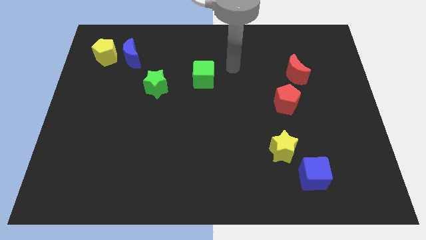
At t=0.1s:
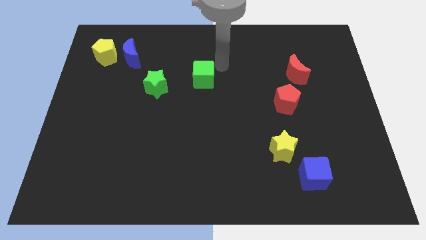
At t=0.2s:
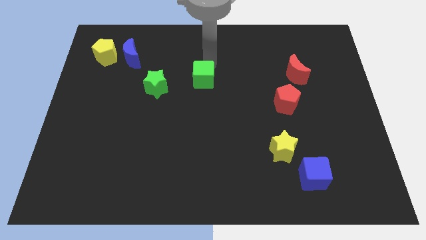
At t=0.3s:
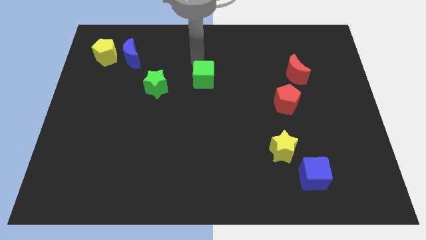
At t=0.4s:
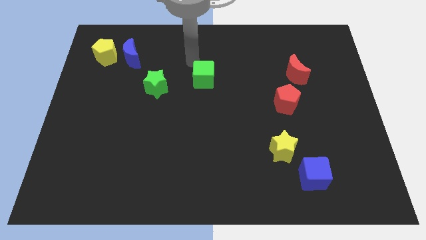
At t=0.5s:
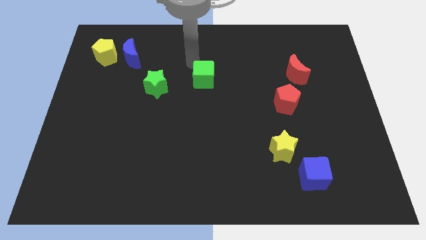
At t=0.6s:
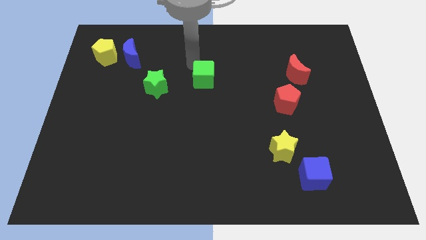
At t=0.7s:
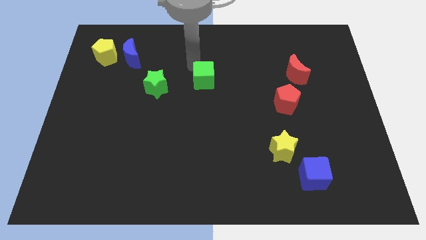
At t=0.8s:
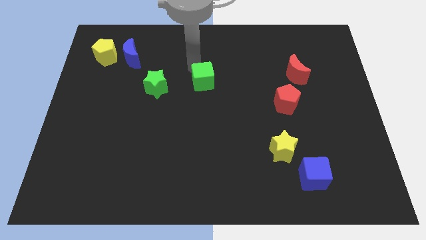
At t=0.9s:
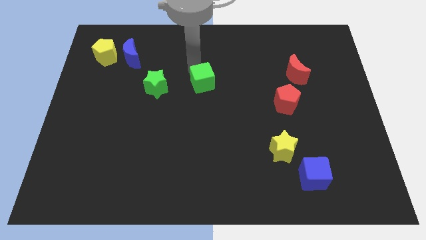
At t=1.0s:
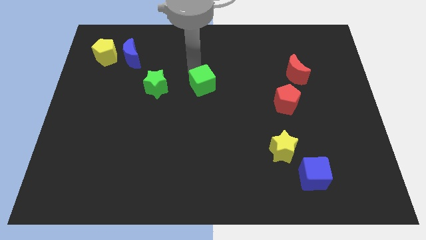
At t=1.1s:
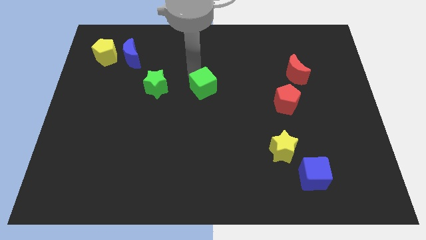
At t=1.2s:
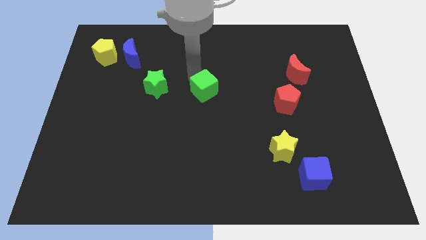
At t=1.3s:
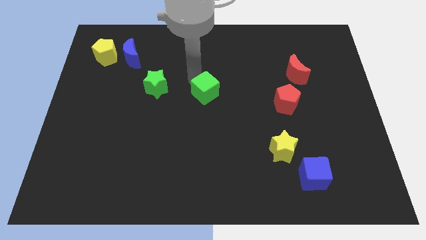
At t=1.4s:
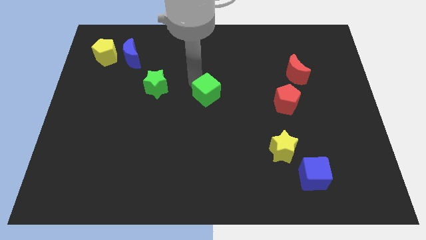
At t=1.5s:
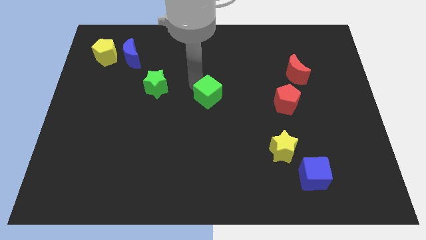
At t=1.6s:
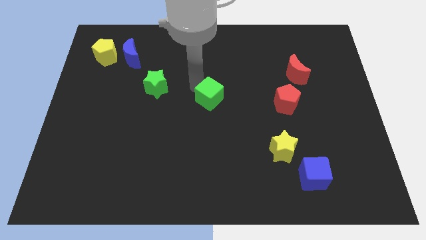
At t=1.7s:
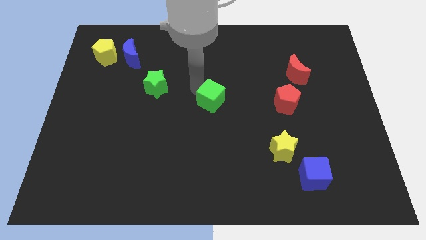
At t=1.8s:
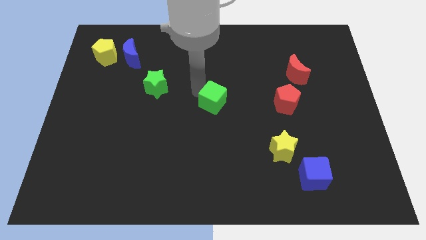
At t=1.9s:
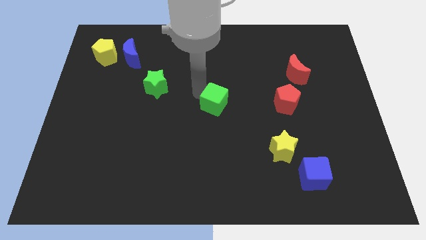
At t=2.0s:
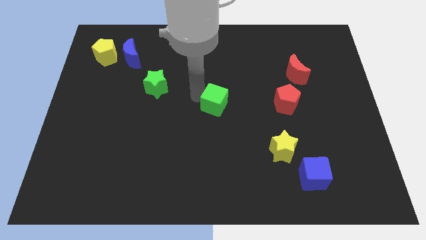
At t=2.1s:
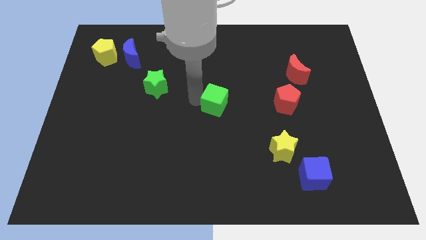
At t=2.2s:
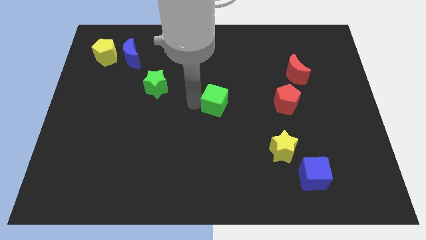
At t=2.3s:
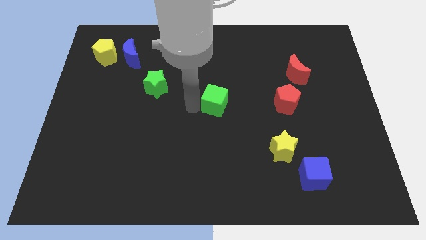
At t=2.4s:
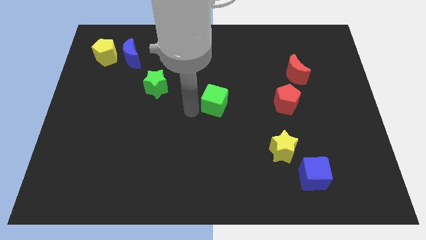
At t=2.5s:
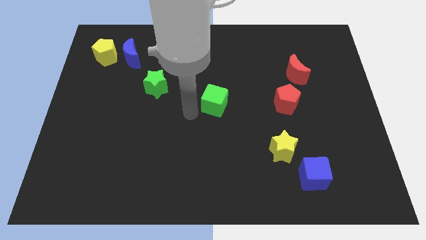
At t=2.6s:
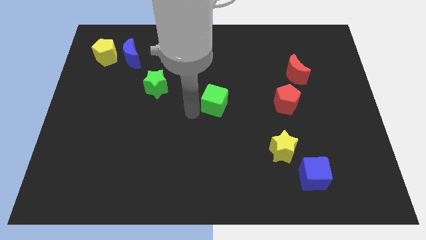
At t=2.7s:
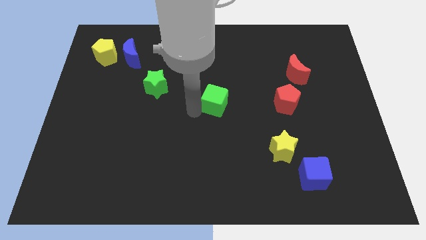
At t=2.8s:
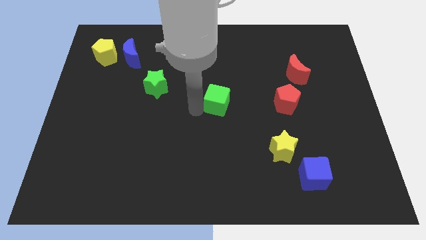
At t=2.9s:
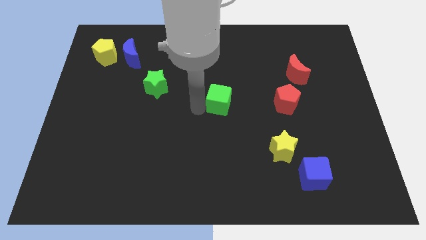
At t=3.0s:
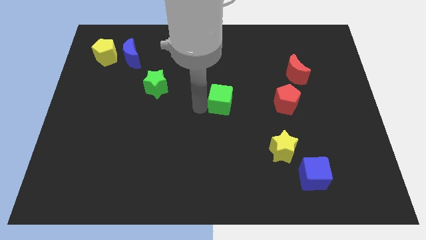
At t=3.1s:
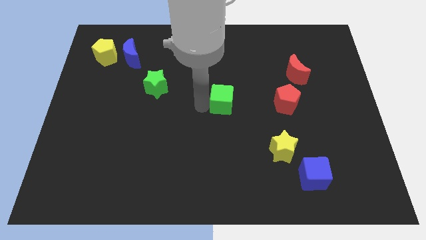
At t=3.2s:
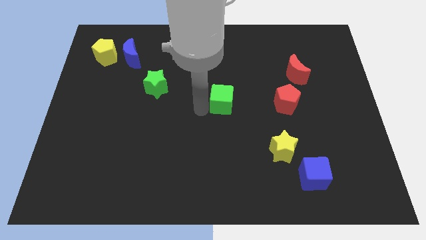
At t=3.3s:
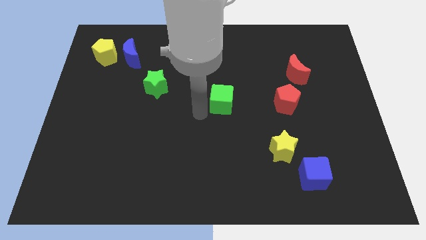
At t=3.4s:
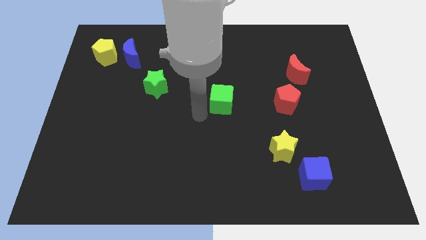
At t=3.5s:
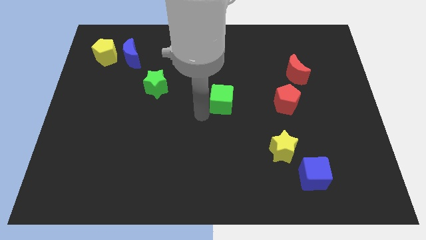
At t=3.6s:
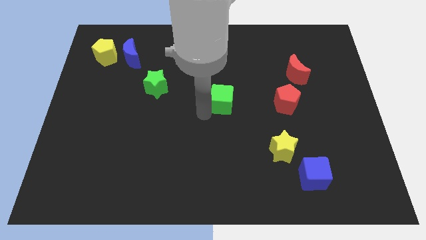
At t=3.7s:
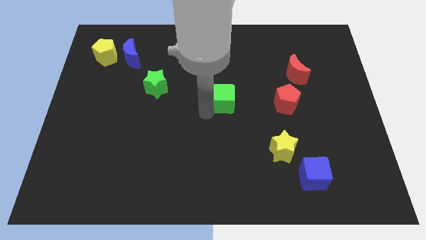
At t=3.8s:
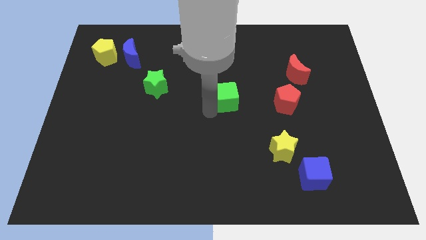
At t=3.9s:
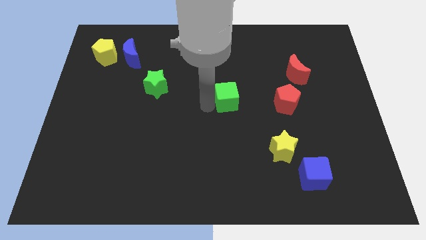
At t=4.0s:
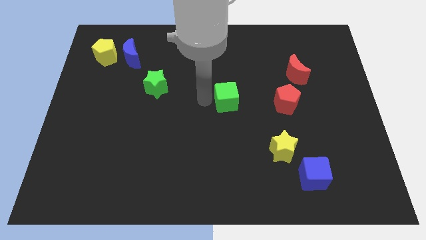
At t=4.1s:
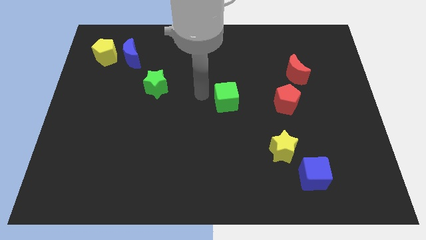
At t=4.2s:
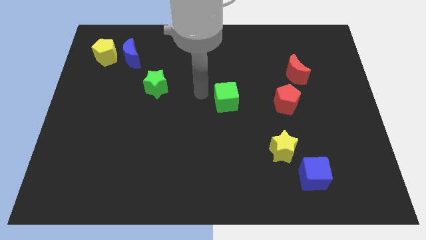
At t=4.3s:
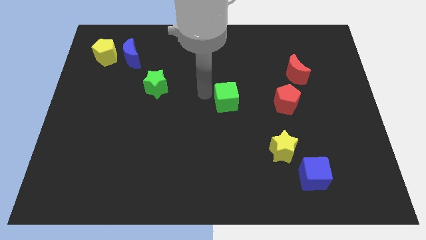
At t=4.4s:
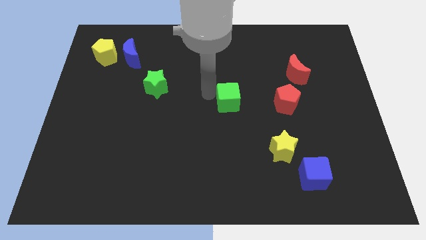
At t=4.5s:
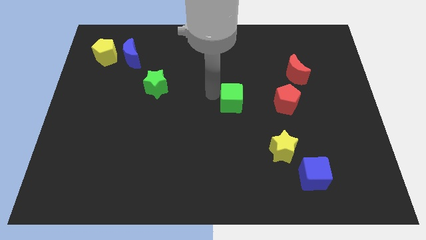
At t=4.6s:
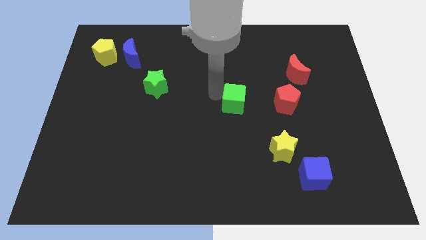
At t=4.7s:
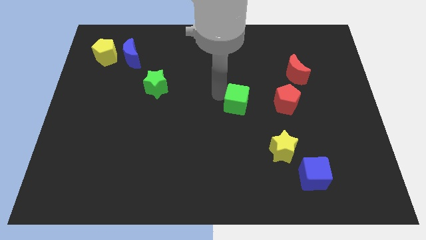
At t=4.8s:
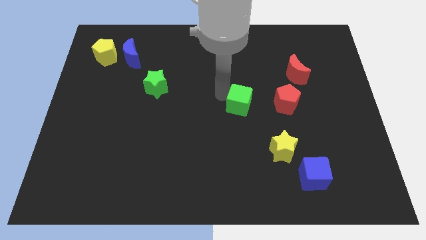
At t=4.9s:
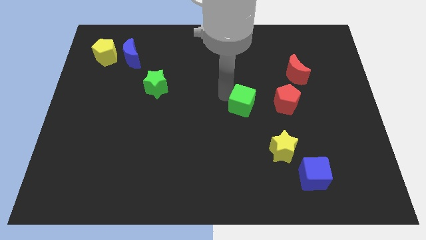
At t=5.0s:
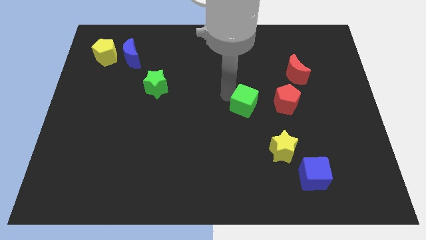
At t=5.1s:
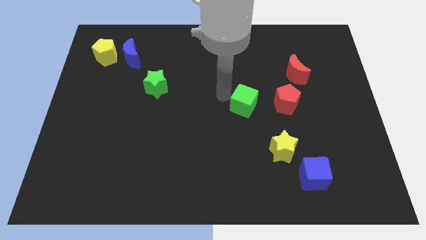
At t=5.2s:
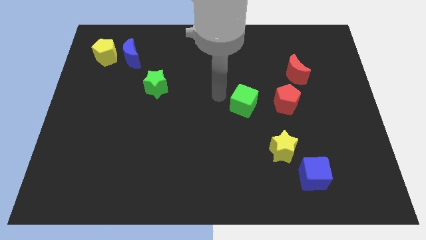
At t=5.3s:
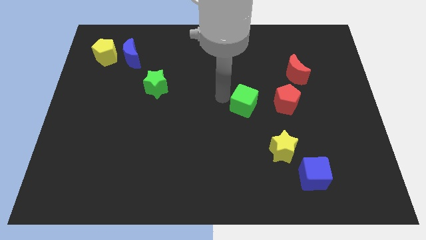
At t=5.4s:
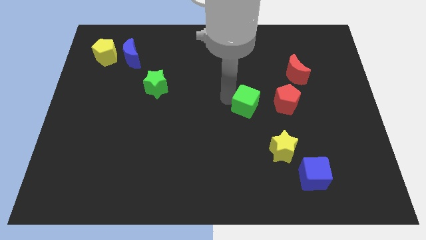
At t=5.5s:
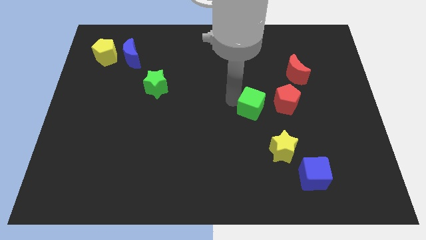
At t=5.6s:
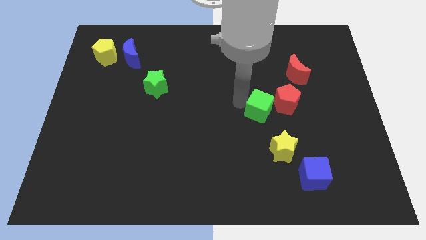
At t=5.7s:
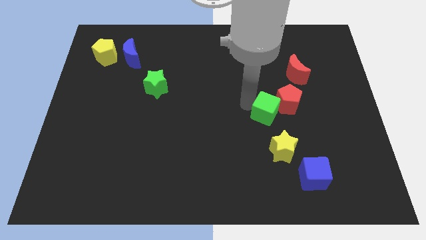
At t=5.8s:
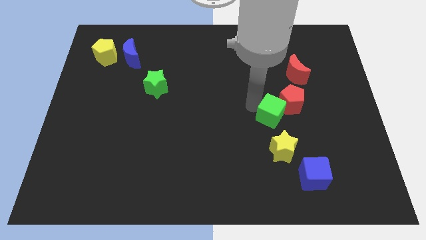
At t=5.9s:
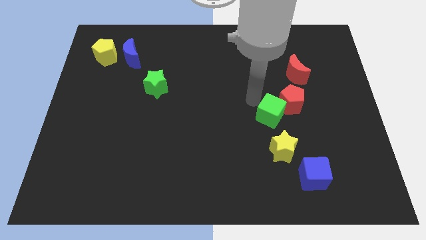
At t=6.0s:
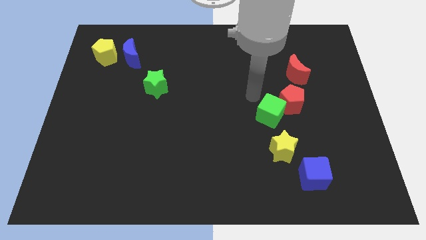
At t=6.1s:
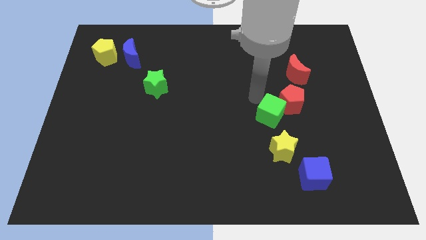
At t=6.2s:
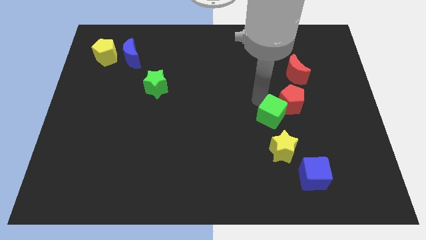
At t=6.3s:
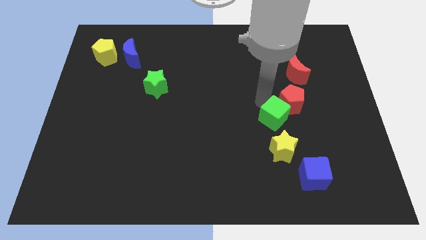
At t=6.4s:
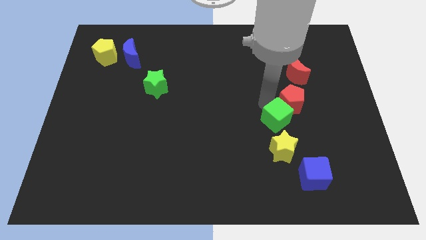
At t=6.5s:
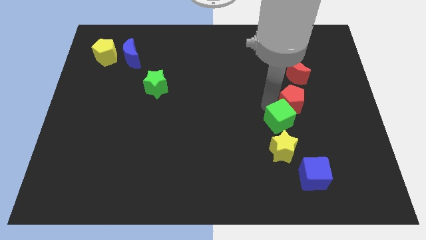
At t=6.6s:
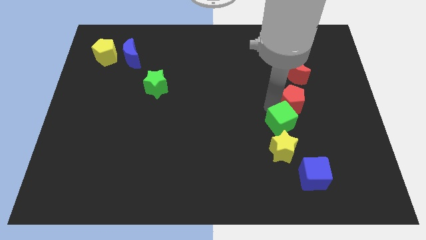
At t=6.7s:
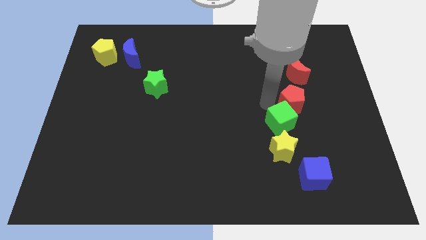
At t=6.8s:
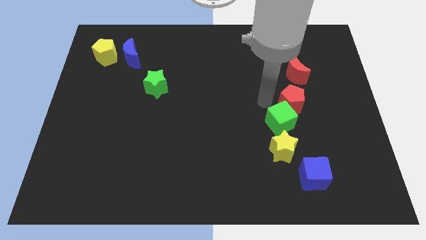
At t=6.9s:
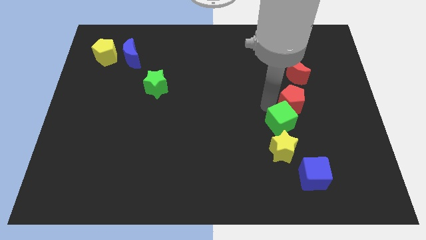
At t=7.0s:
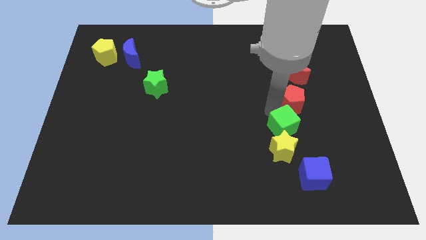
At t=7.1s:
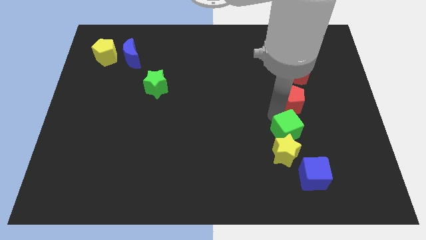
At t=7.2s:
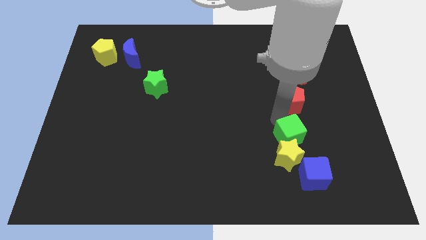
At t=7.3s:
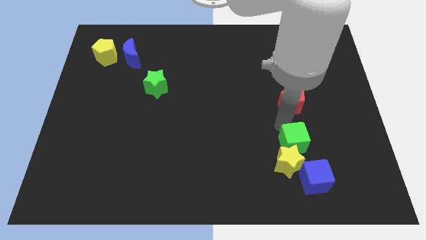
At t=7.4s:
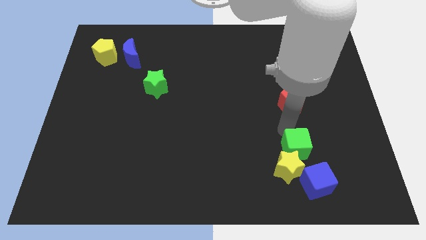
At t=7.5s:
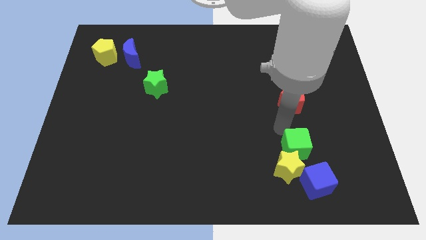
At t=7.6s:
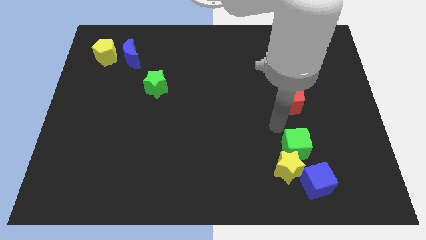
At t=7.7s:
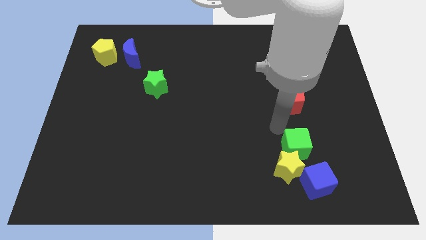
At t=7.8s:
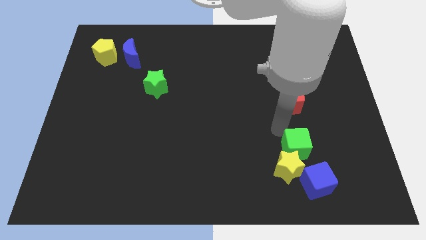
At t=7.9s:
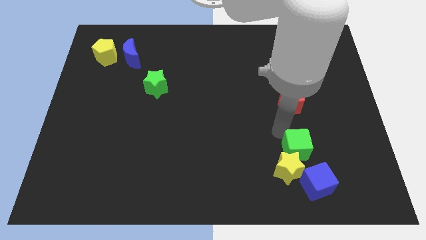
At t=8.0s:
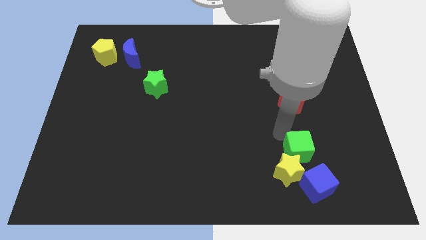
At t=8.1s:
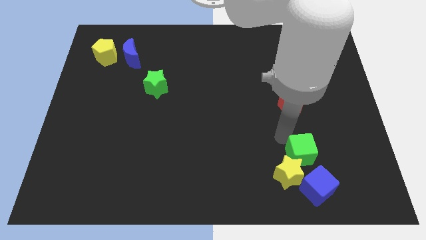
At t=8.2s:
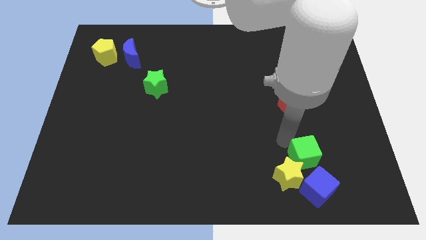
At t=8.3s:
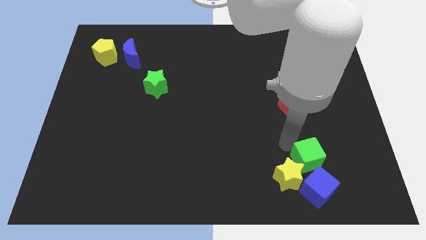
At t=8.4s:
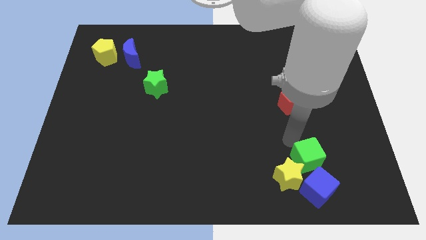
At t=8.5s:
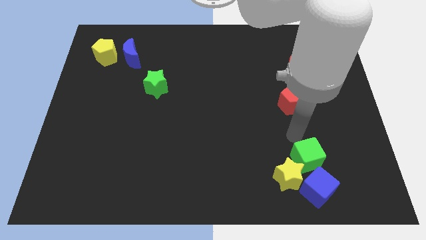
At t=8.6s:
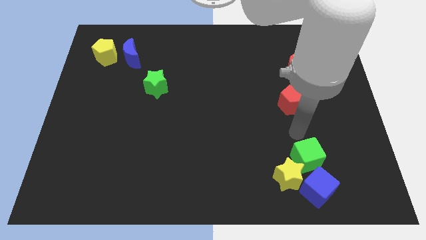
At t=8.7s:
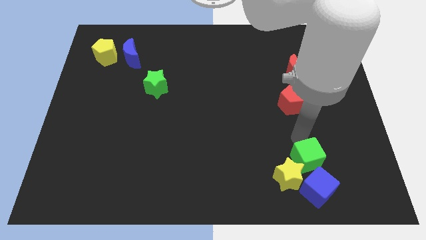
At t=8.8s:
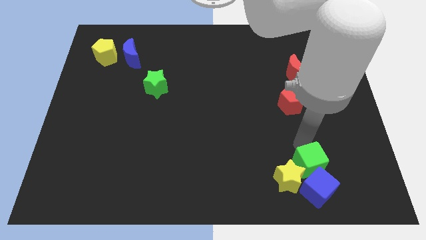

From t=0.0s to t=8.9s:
slide the green cube close to the blue cube
